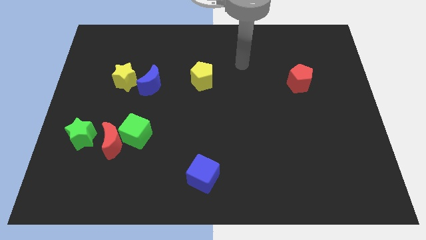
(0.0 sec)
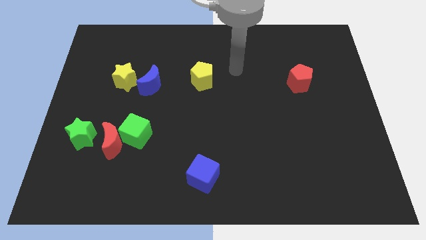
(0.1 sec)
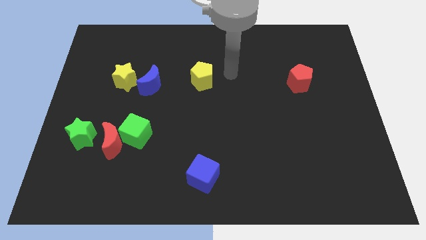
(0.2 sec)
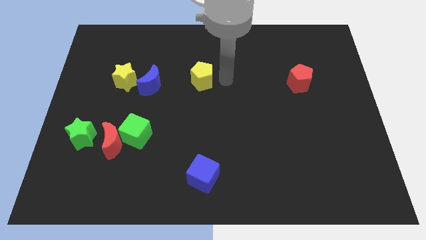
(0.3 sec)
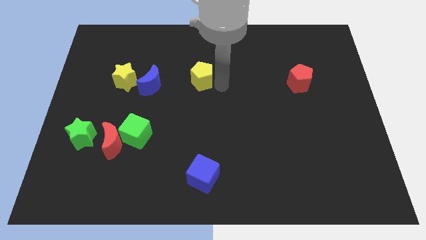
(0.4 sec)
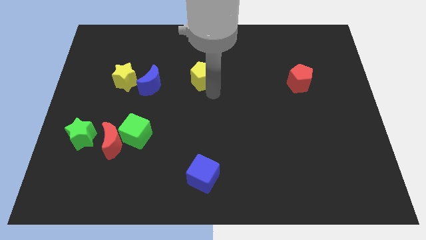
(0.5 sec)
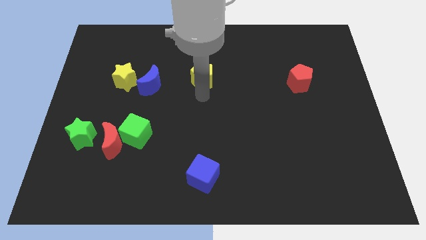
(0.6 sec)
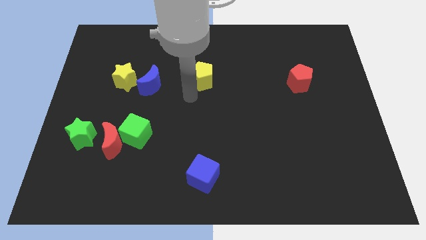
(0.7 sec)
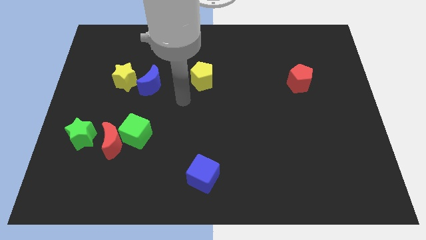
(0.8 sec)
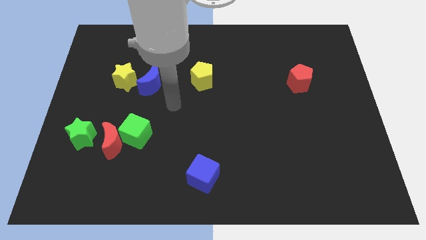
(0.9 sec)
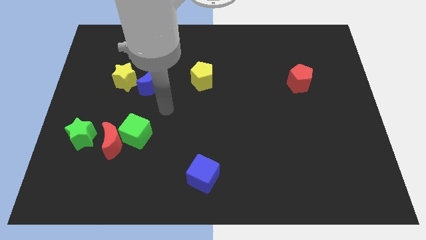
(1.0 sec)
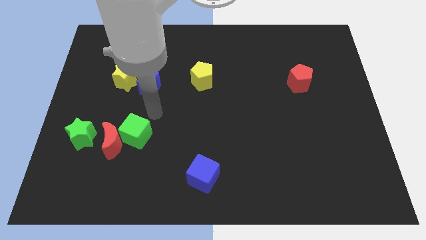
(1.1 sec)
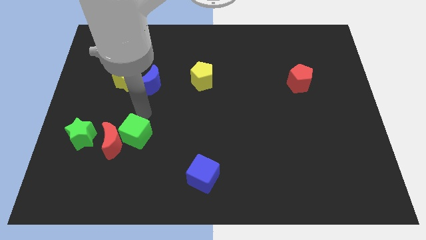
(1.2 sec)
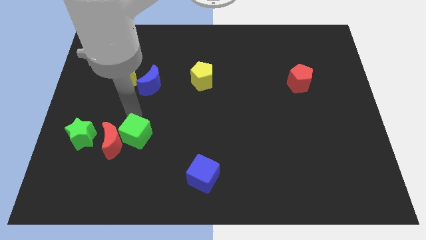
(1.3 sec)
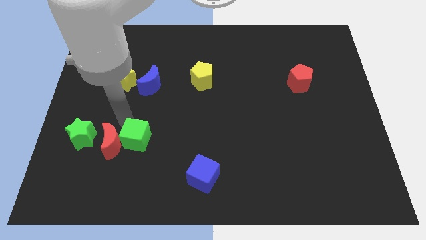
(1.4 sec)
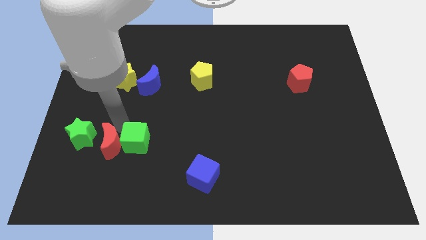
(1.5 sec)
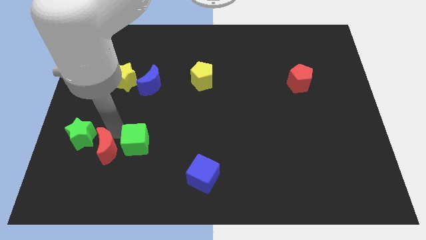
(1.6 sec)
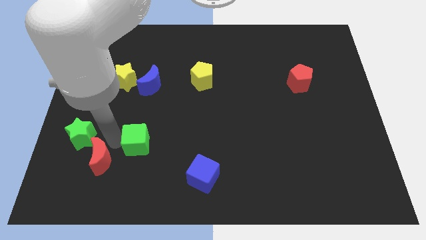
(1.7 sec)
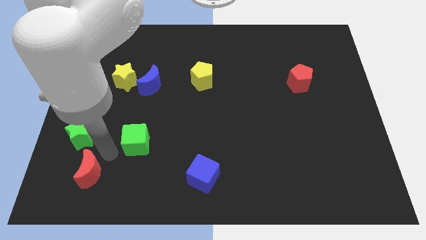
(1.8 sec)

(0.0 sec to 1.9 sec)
separate the green cube from the red moon

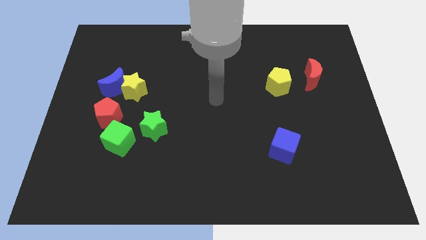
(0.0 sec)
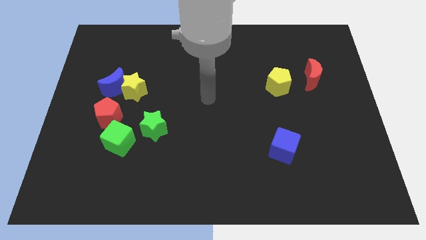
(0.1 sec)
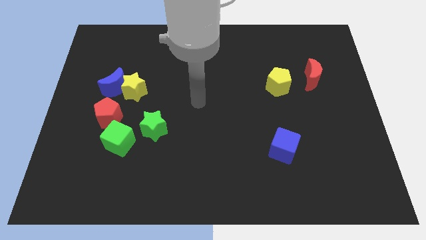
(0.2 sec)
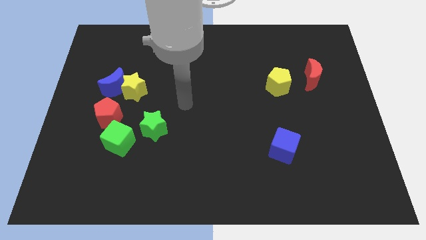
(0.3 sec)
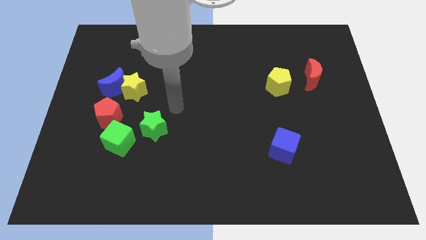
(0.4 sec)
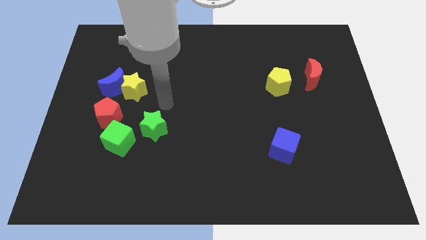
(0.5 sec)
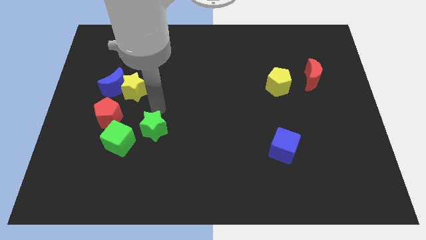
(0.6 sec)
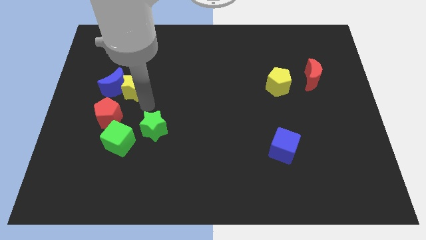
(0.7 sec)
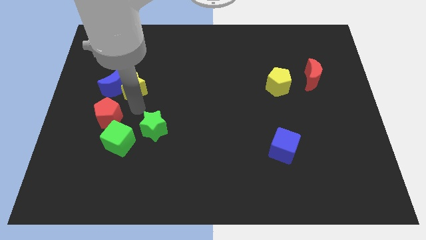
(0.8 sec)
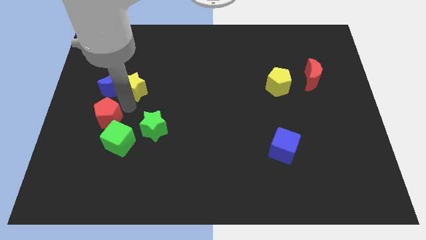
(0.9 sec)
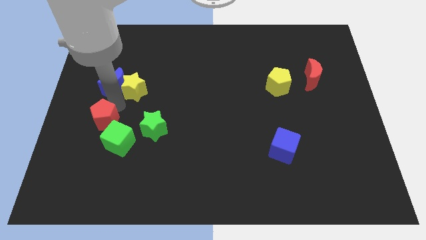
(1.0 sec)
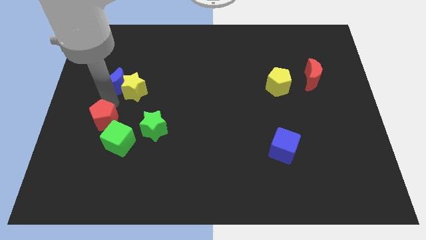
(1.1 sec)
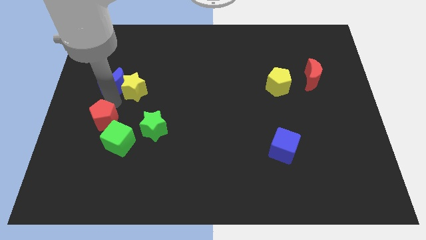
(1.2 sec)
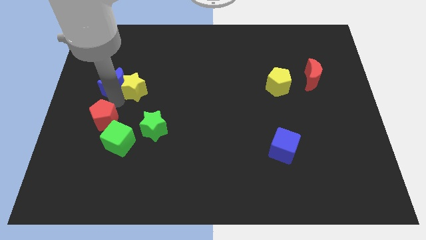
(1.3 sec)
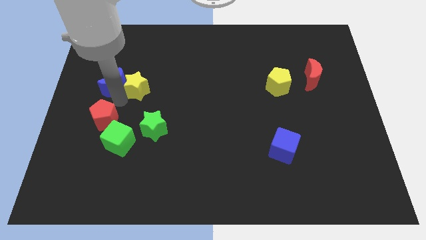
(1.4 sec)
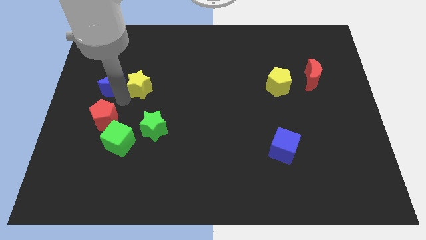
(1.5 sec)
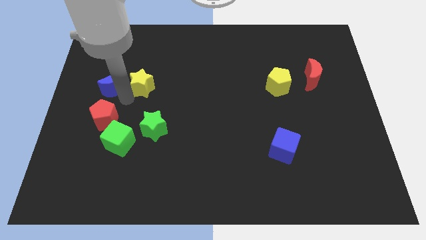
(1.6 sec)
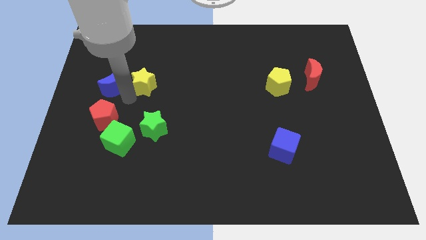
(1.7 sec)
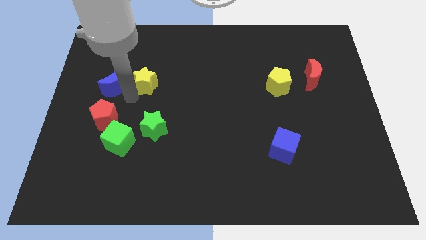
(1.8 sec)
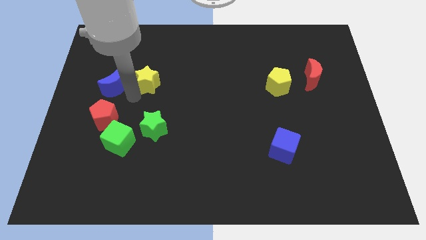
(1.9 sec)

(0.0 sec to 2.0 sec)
separate the yellow star from the blue moon and red pentagon

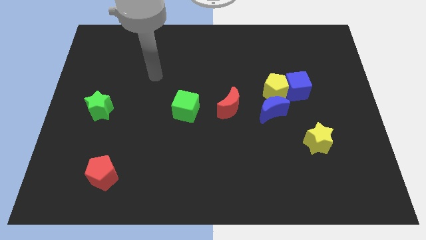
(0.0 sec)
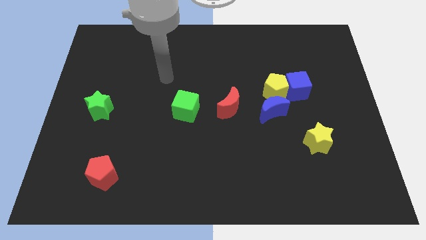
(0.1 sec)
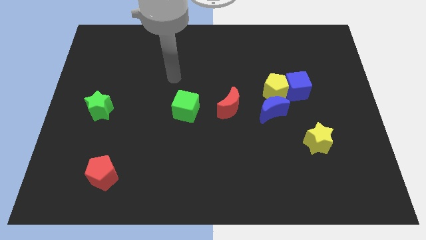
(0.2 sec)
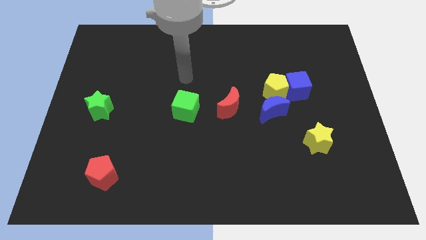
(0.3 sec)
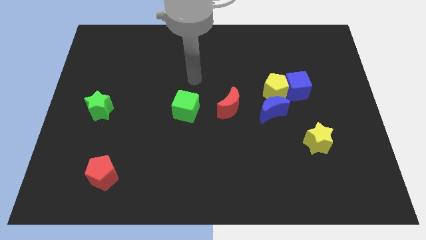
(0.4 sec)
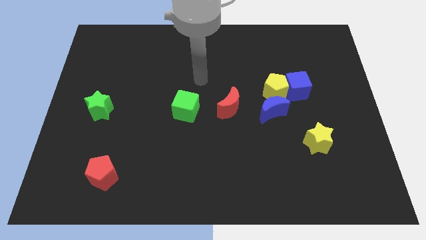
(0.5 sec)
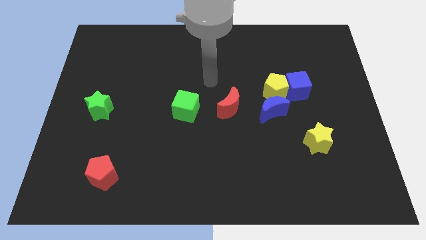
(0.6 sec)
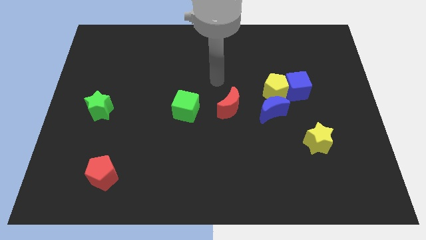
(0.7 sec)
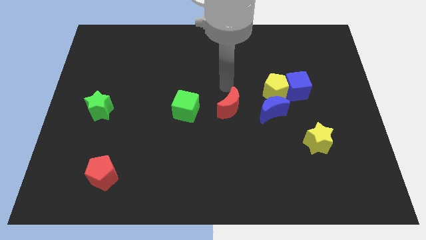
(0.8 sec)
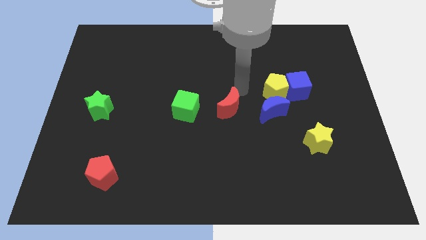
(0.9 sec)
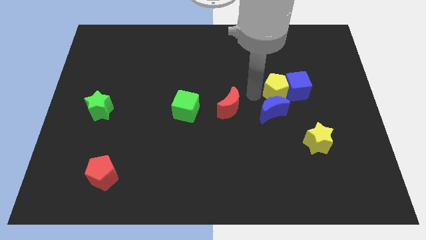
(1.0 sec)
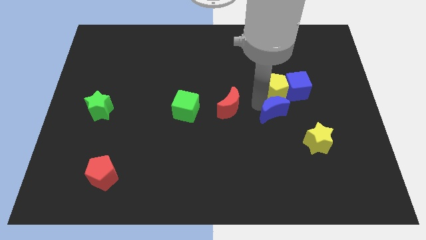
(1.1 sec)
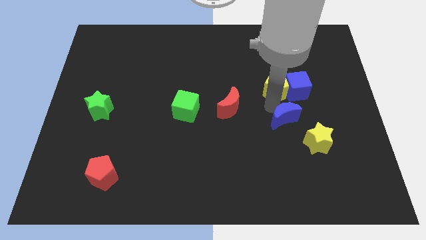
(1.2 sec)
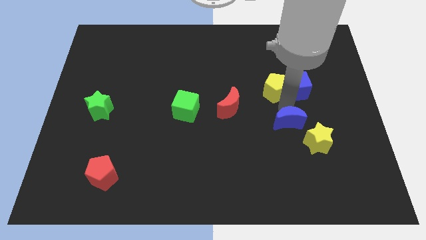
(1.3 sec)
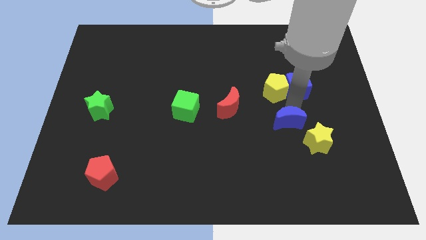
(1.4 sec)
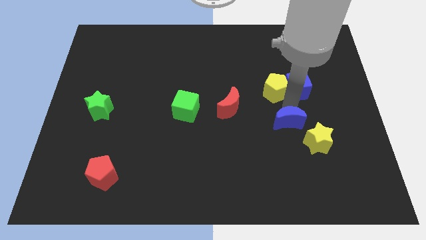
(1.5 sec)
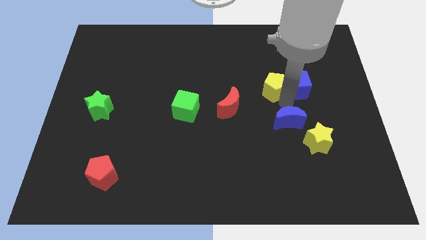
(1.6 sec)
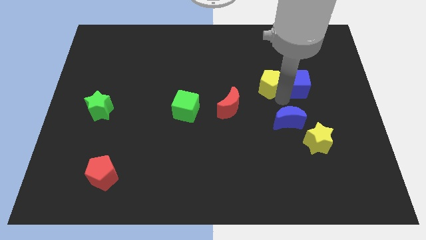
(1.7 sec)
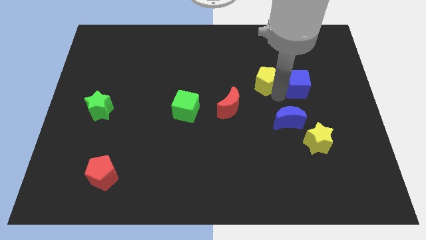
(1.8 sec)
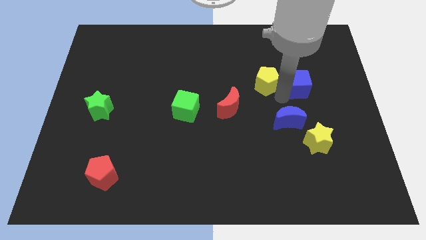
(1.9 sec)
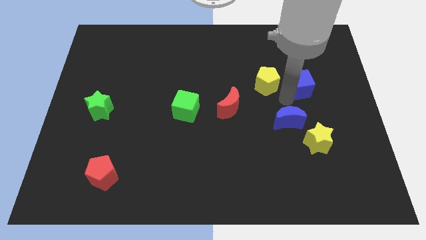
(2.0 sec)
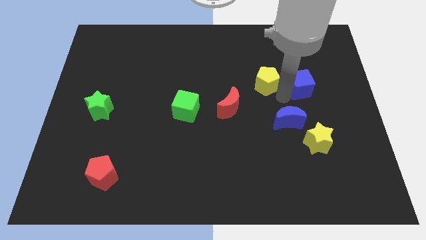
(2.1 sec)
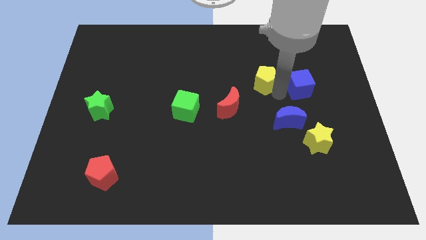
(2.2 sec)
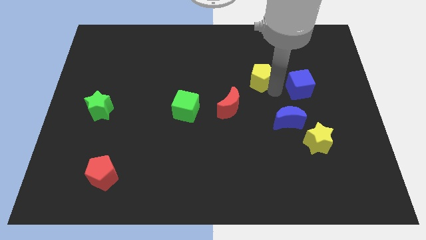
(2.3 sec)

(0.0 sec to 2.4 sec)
move the yellow pentagon away from the blue cube and blue moon

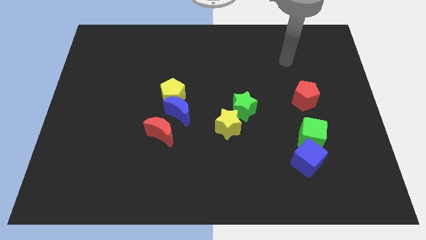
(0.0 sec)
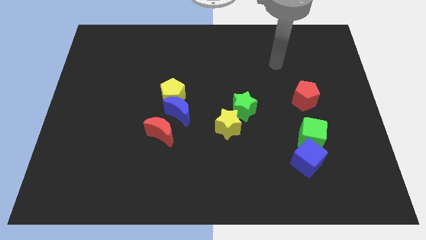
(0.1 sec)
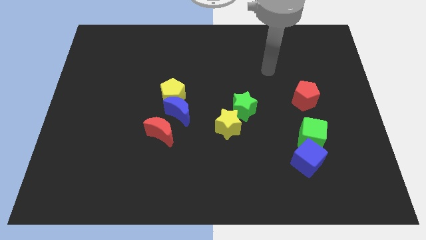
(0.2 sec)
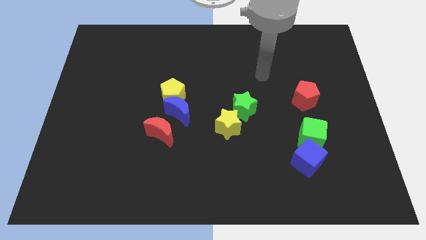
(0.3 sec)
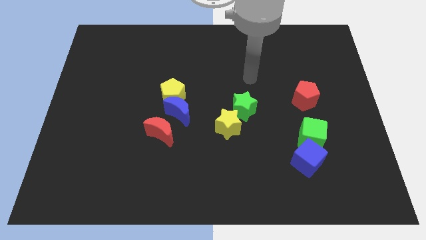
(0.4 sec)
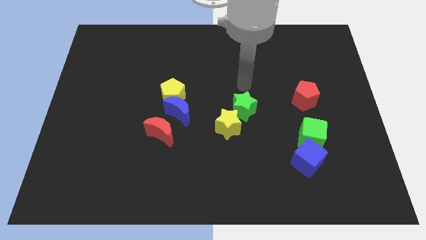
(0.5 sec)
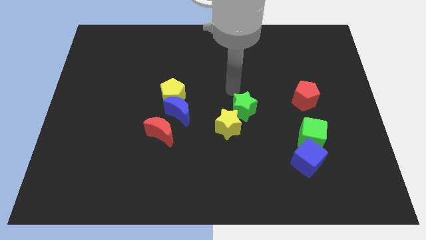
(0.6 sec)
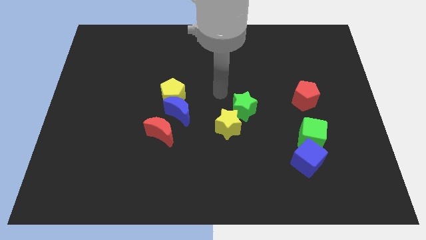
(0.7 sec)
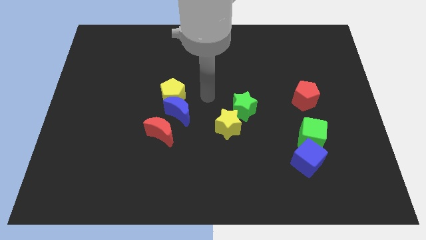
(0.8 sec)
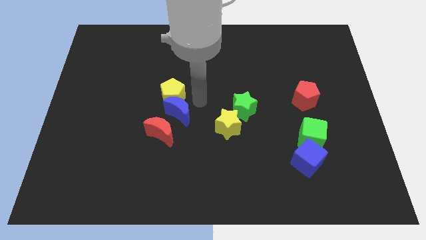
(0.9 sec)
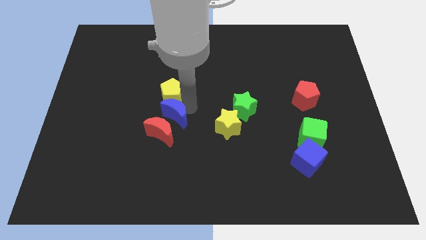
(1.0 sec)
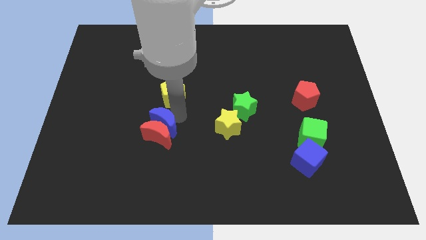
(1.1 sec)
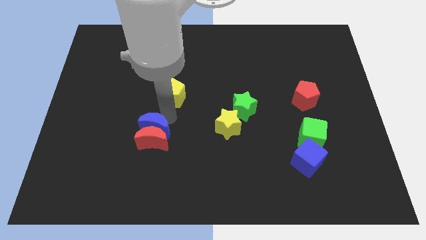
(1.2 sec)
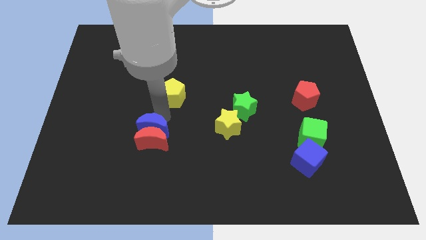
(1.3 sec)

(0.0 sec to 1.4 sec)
separate the yellow pentagon from the blue moon

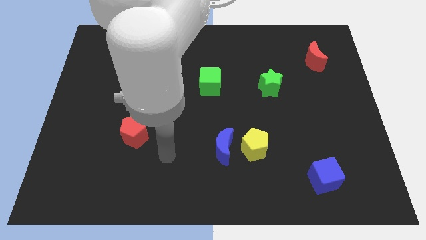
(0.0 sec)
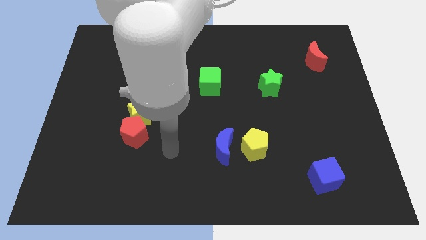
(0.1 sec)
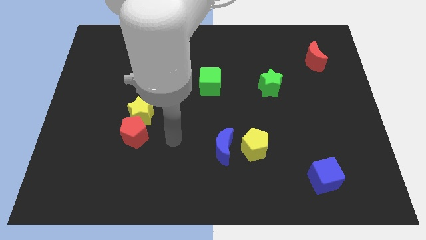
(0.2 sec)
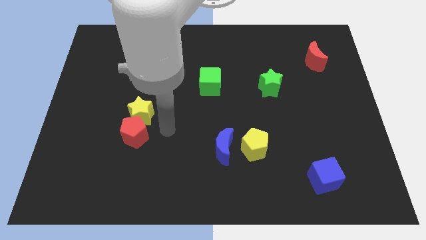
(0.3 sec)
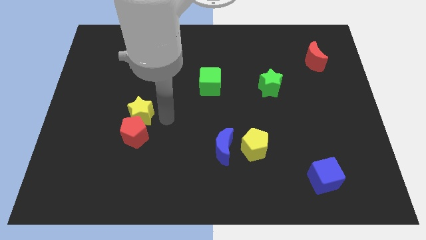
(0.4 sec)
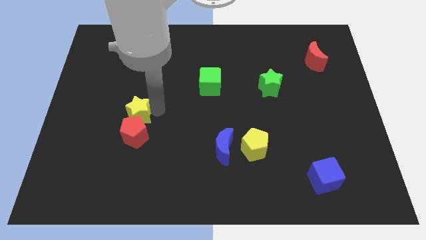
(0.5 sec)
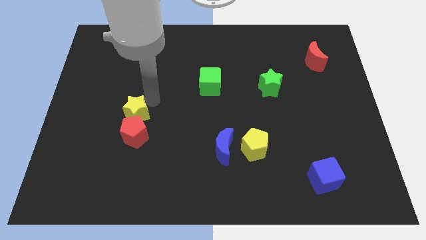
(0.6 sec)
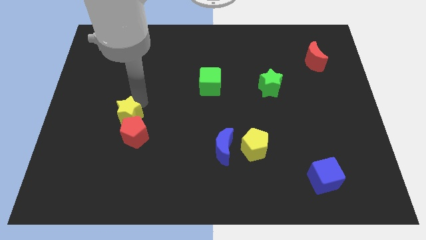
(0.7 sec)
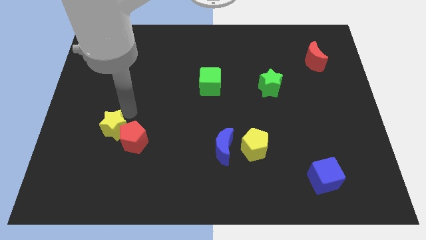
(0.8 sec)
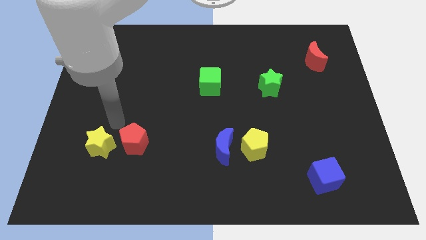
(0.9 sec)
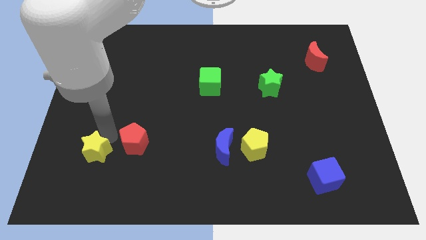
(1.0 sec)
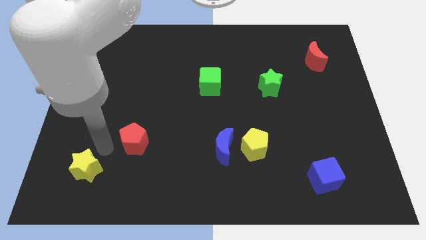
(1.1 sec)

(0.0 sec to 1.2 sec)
separate the red pentagon from the yellow star

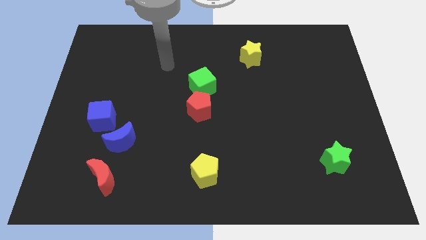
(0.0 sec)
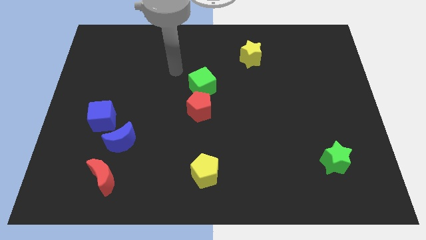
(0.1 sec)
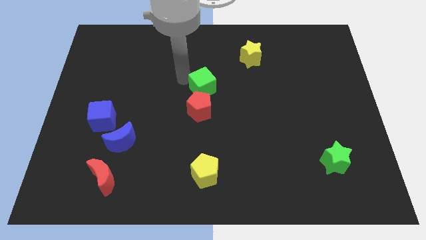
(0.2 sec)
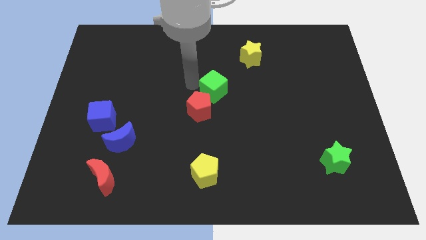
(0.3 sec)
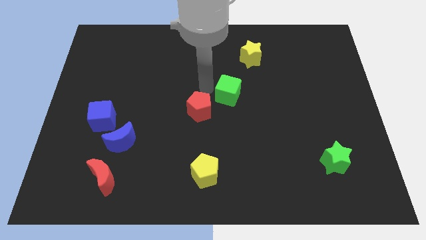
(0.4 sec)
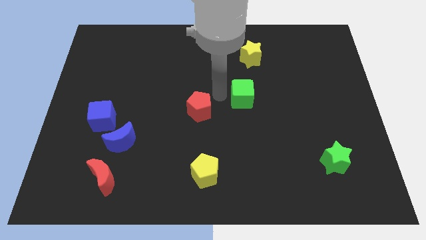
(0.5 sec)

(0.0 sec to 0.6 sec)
move the red pentagon away from the green cube
